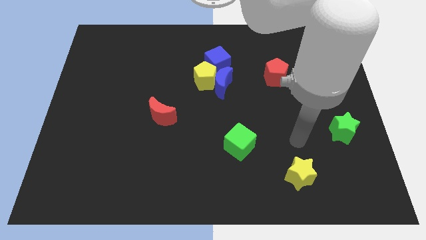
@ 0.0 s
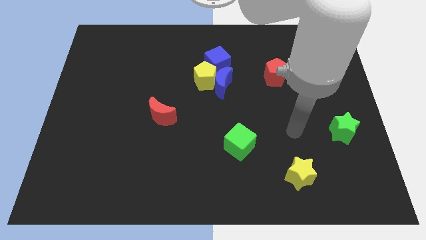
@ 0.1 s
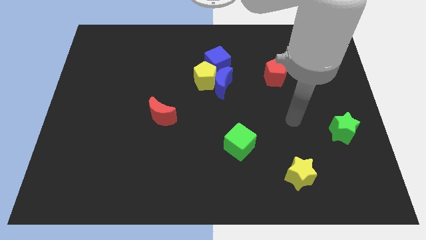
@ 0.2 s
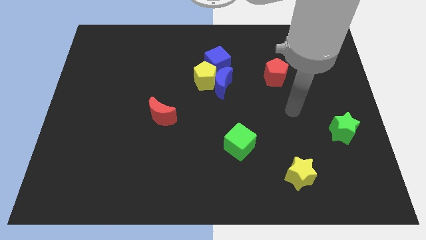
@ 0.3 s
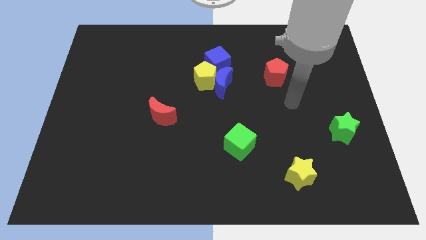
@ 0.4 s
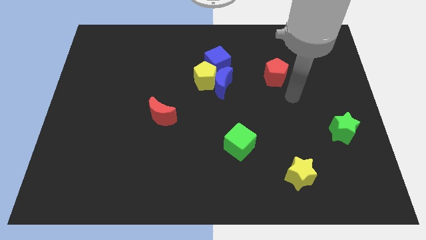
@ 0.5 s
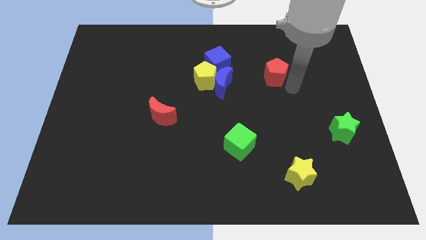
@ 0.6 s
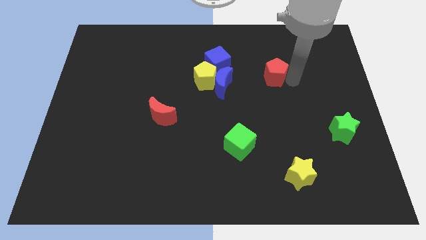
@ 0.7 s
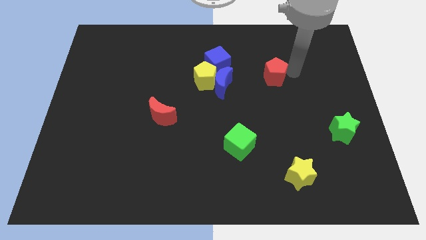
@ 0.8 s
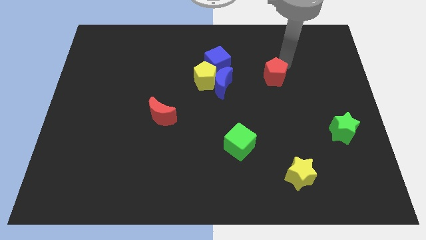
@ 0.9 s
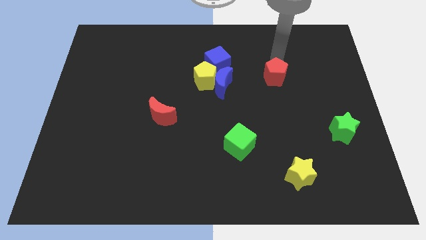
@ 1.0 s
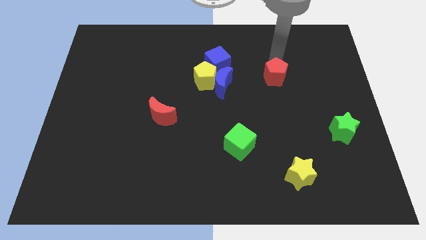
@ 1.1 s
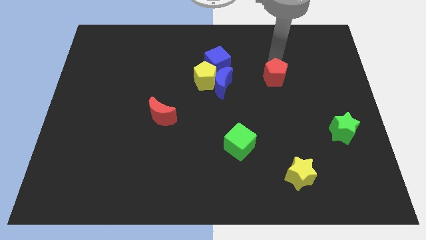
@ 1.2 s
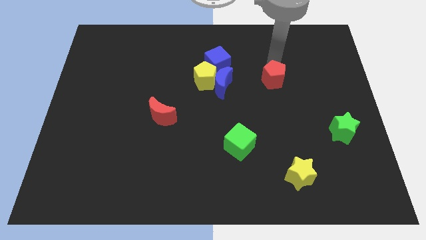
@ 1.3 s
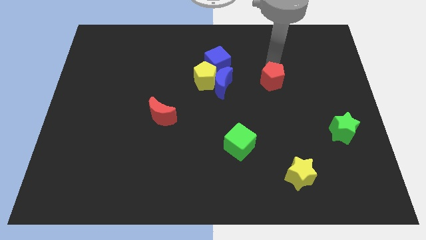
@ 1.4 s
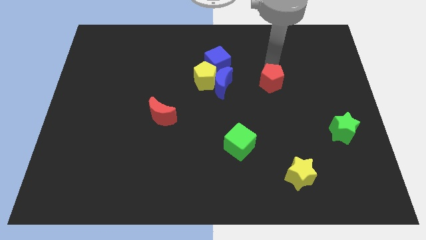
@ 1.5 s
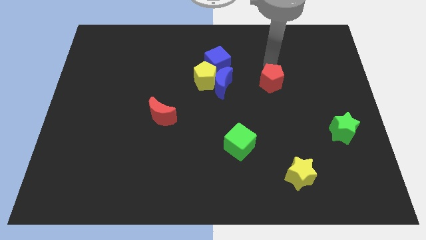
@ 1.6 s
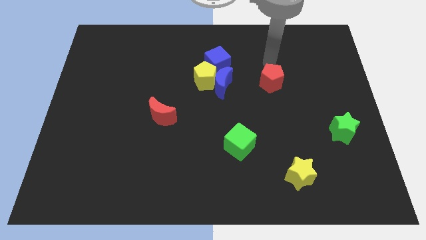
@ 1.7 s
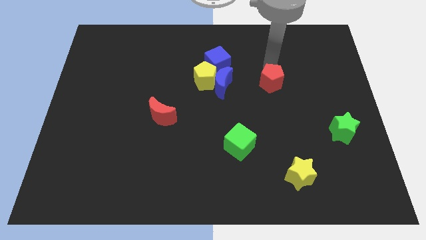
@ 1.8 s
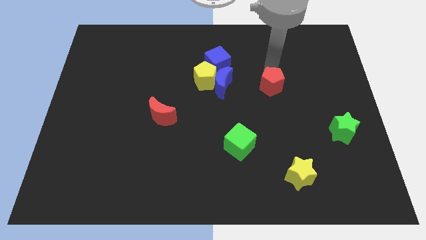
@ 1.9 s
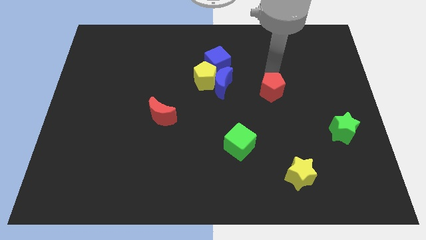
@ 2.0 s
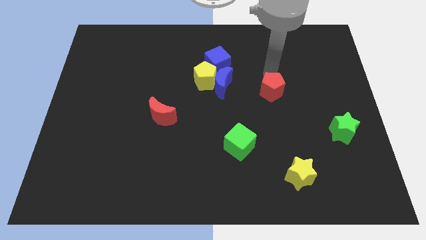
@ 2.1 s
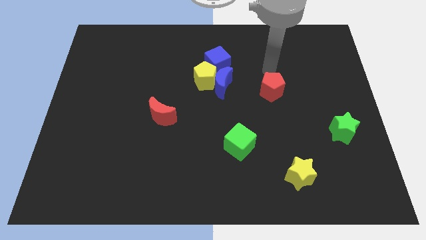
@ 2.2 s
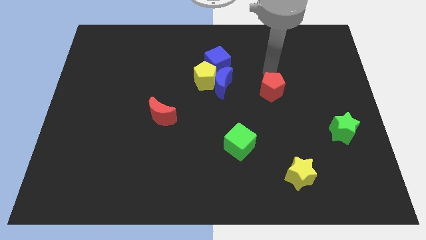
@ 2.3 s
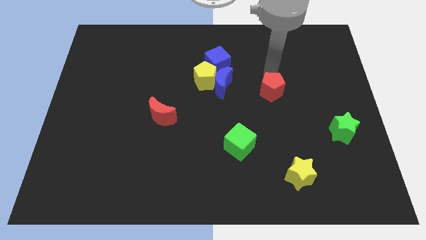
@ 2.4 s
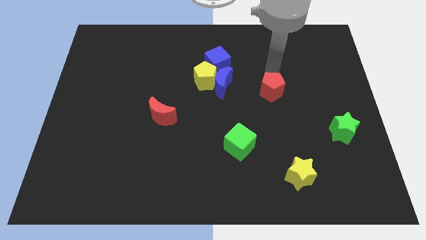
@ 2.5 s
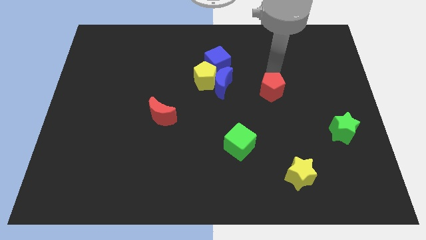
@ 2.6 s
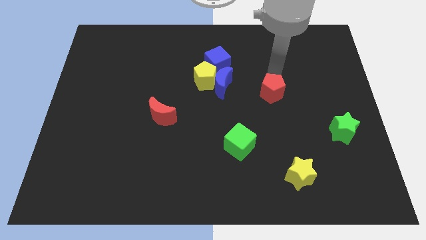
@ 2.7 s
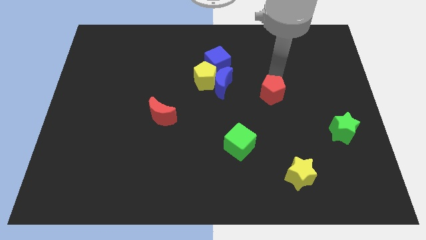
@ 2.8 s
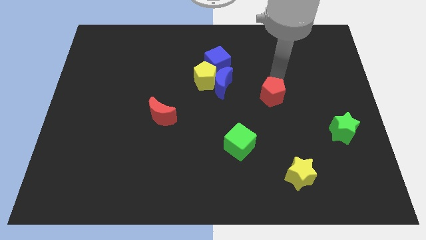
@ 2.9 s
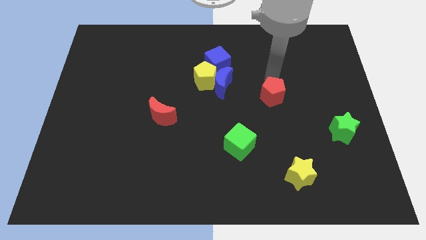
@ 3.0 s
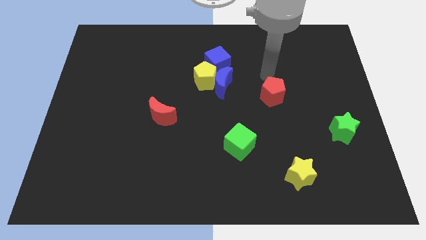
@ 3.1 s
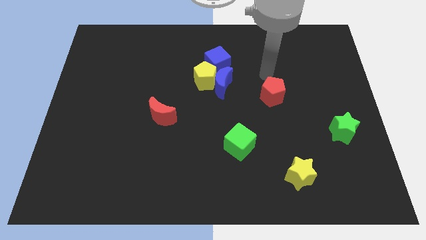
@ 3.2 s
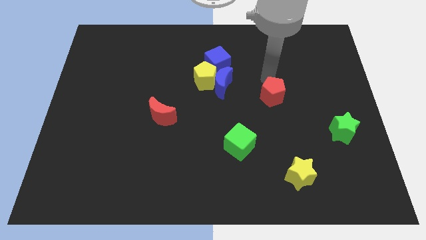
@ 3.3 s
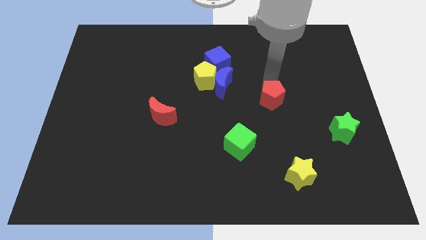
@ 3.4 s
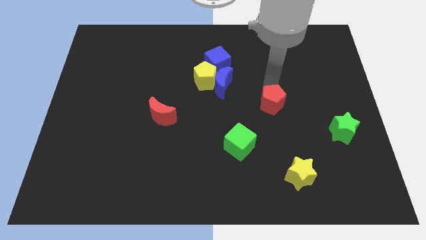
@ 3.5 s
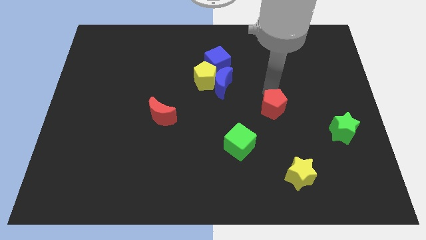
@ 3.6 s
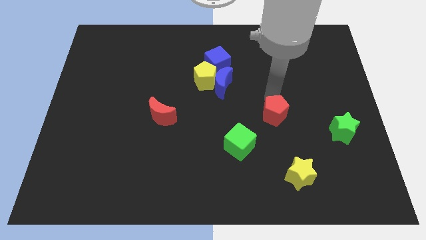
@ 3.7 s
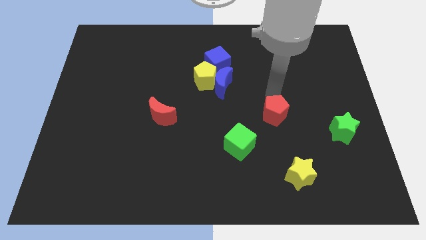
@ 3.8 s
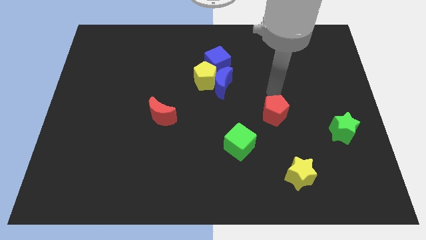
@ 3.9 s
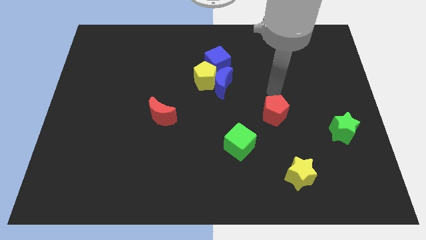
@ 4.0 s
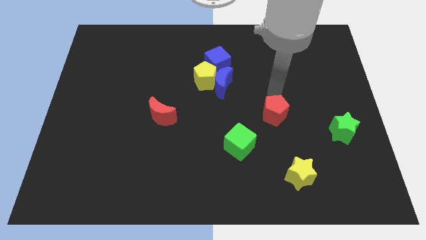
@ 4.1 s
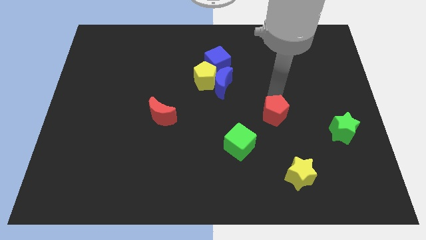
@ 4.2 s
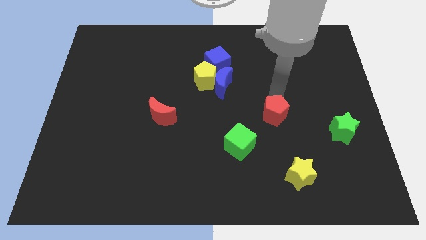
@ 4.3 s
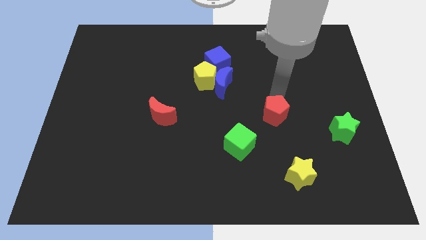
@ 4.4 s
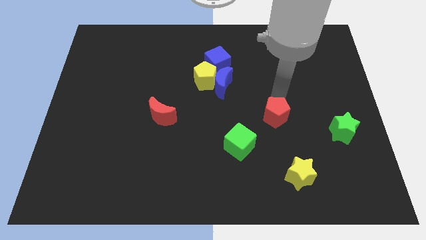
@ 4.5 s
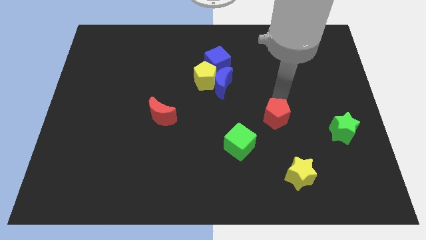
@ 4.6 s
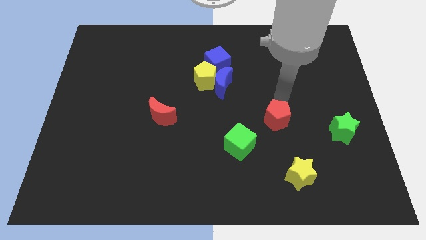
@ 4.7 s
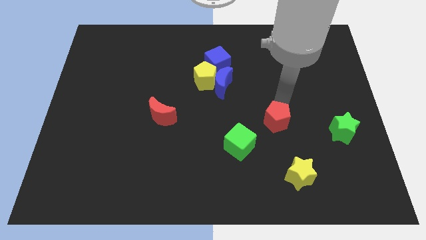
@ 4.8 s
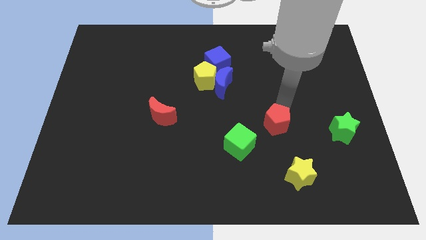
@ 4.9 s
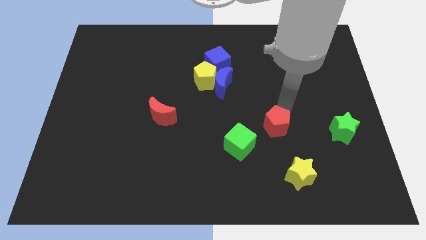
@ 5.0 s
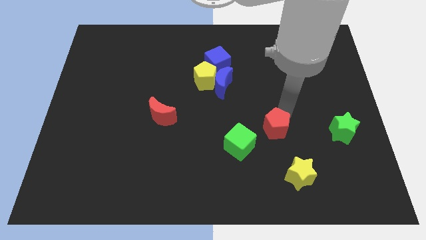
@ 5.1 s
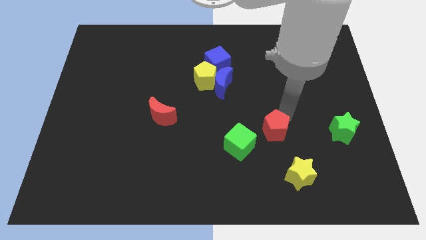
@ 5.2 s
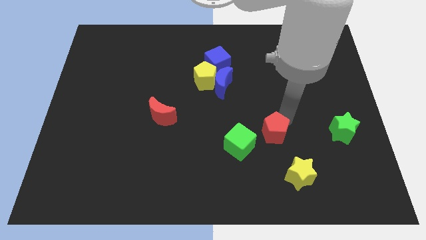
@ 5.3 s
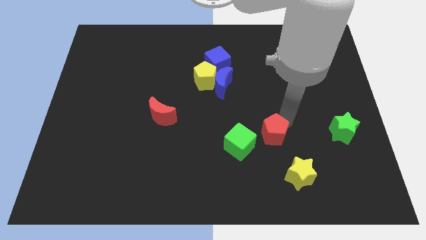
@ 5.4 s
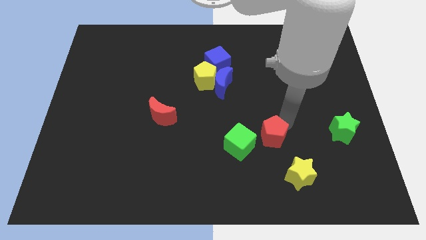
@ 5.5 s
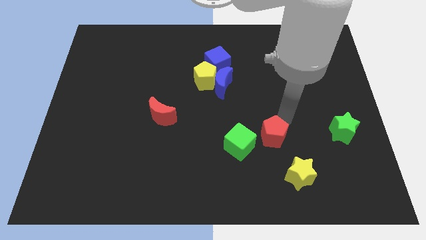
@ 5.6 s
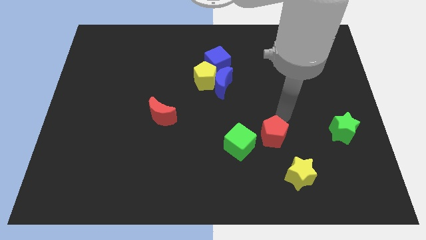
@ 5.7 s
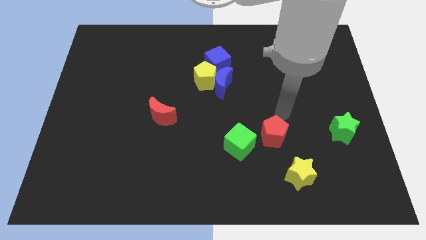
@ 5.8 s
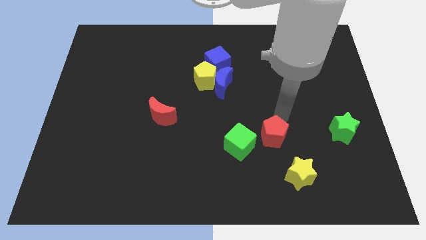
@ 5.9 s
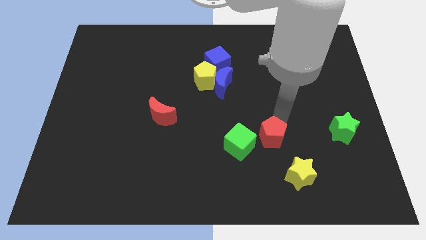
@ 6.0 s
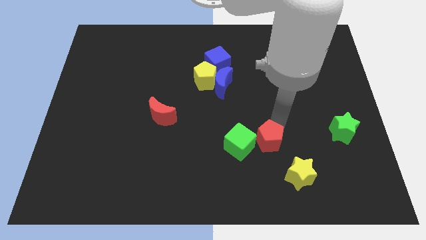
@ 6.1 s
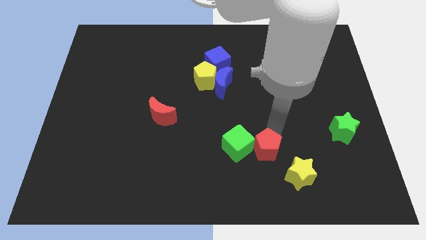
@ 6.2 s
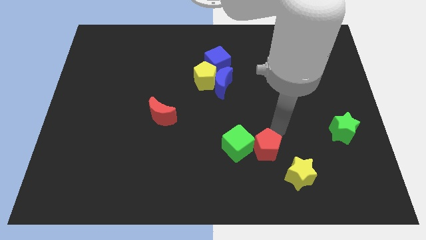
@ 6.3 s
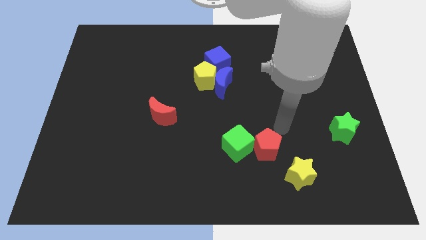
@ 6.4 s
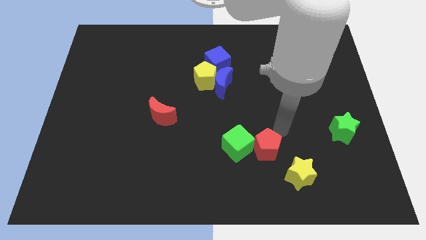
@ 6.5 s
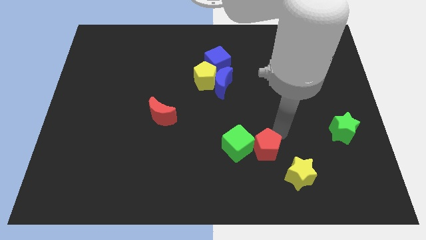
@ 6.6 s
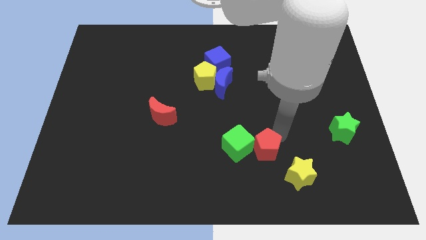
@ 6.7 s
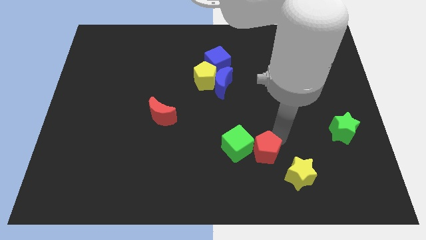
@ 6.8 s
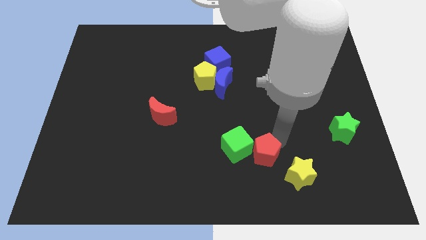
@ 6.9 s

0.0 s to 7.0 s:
move the red pentagon left of the yellow star

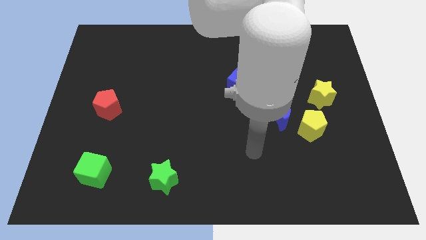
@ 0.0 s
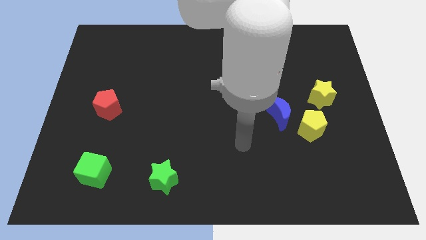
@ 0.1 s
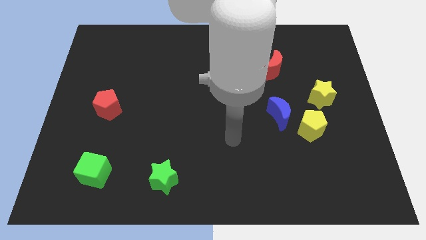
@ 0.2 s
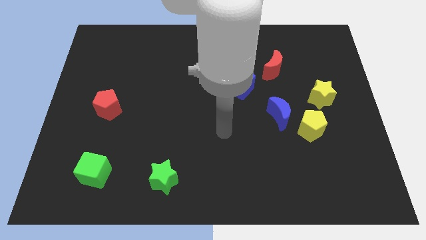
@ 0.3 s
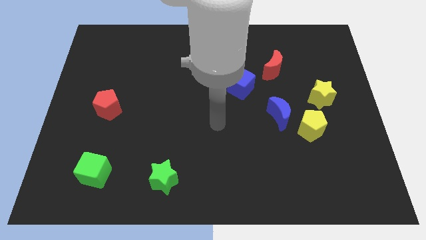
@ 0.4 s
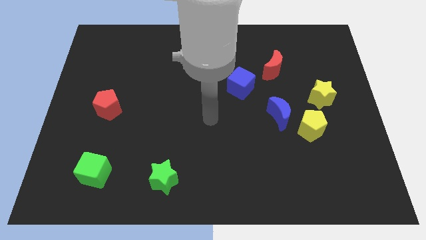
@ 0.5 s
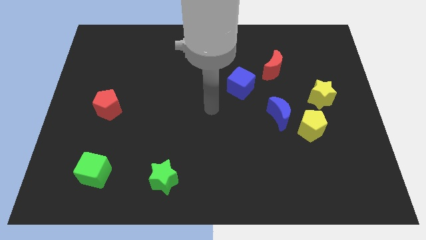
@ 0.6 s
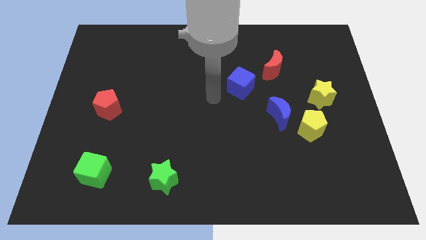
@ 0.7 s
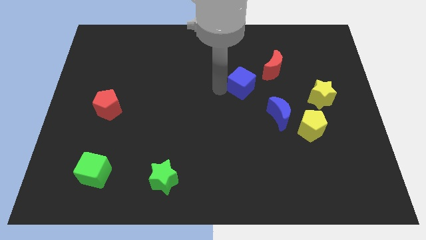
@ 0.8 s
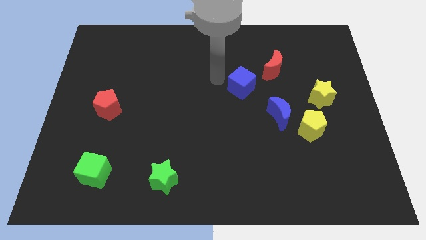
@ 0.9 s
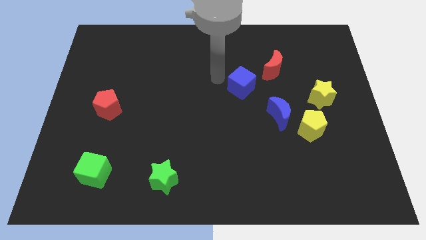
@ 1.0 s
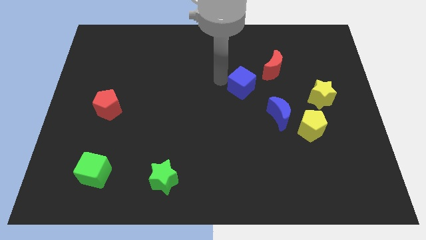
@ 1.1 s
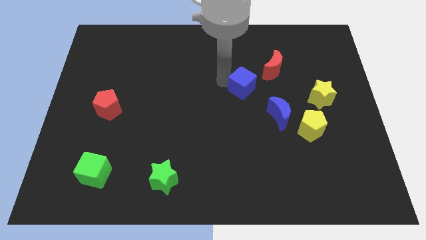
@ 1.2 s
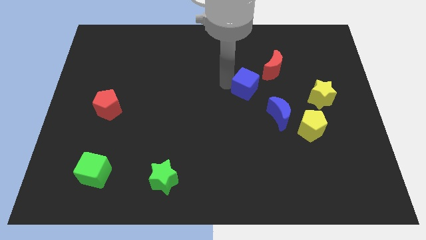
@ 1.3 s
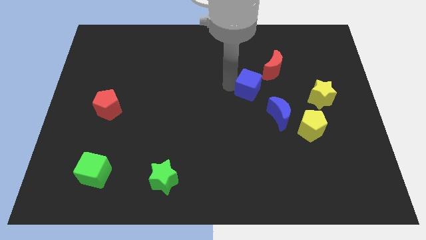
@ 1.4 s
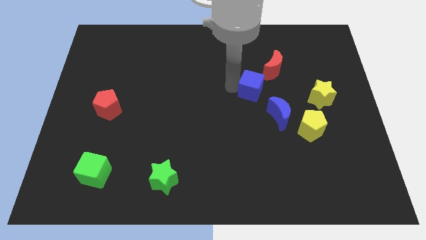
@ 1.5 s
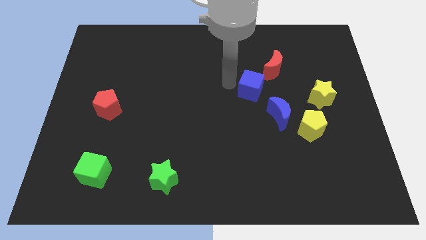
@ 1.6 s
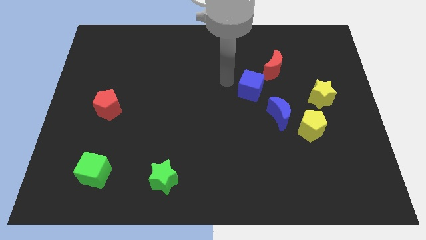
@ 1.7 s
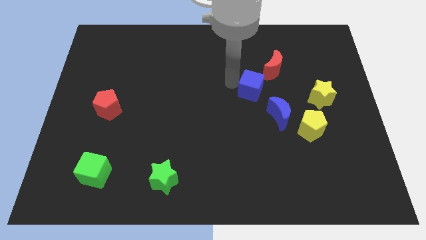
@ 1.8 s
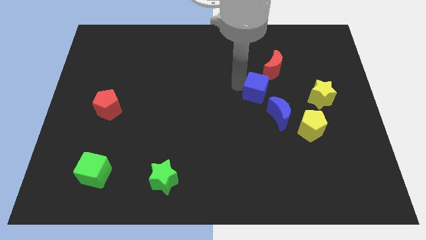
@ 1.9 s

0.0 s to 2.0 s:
push the blue cube to the left of the yellow star
